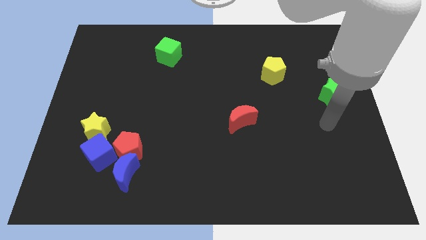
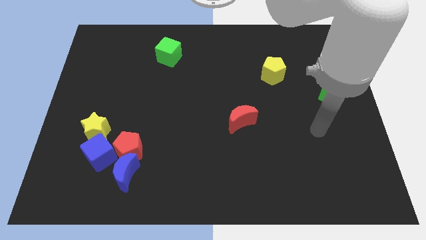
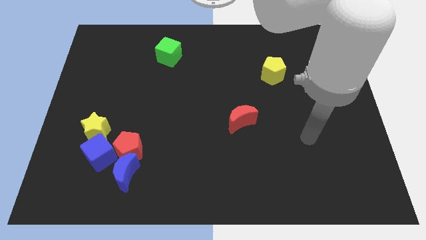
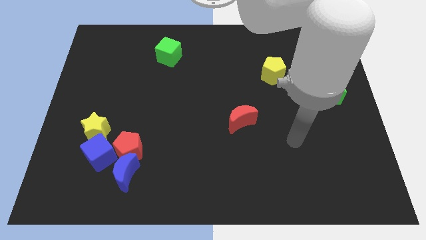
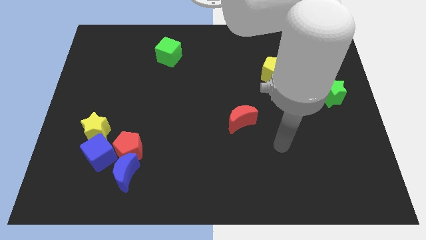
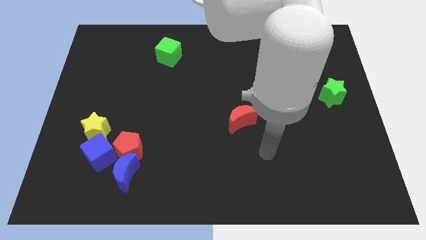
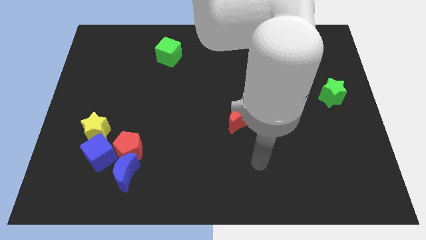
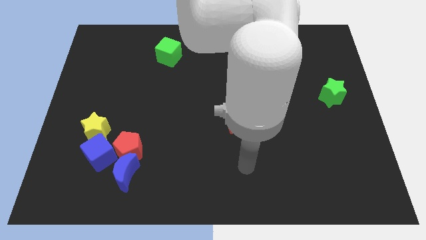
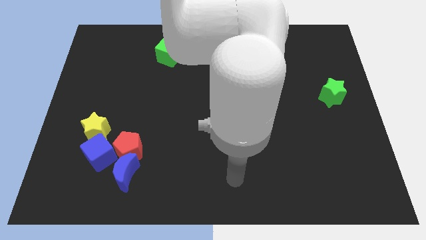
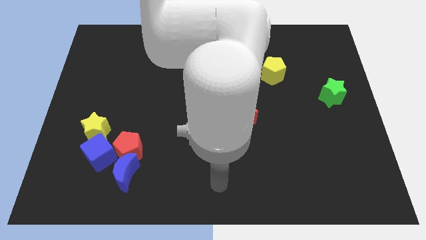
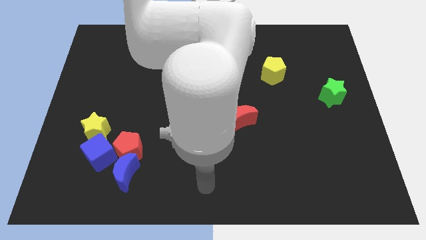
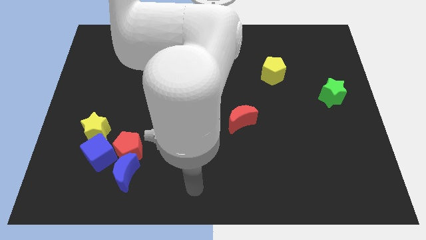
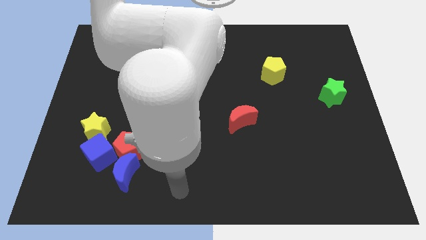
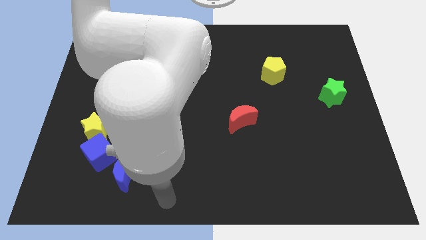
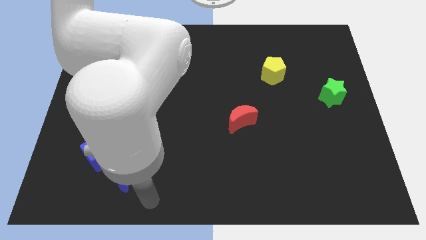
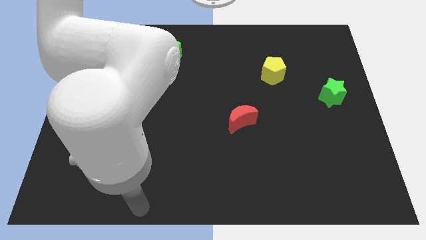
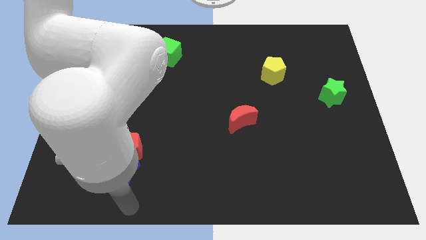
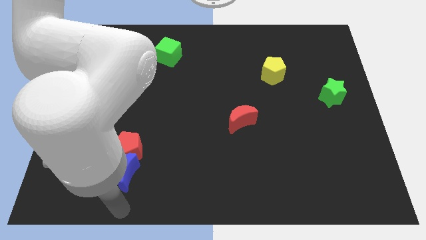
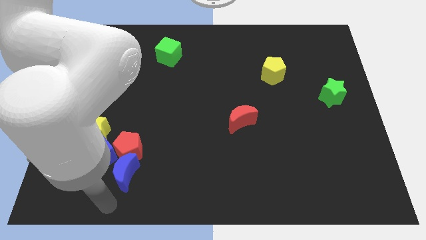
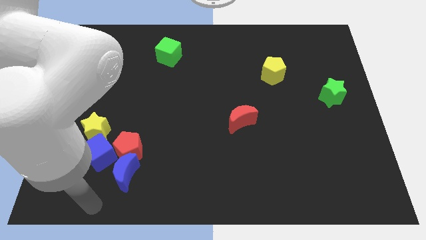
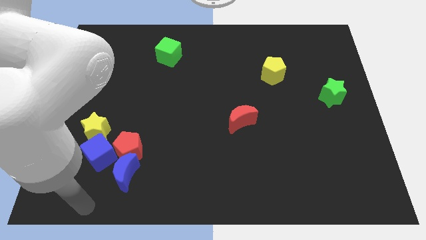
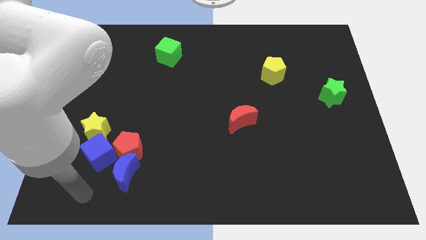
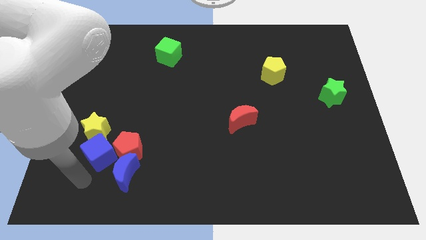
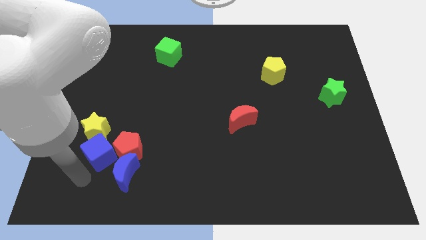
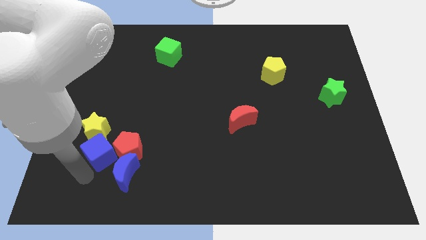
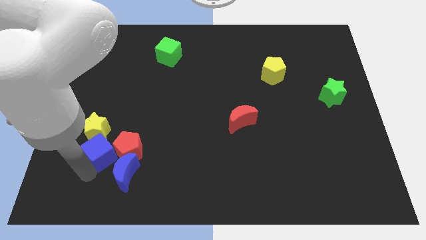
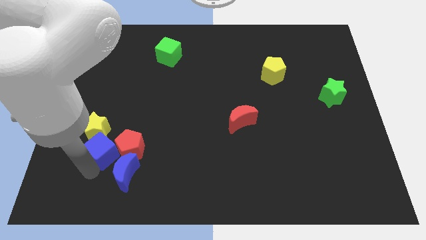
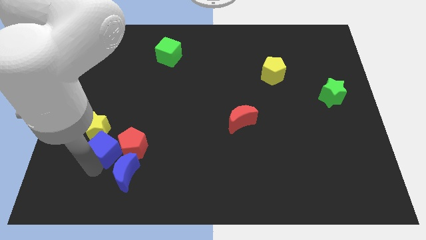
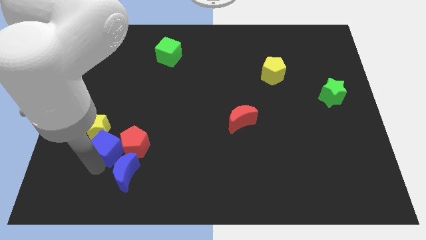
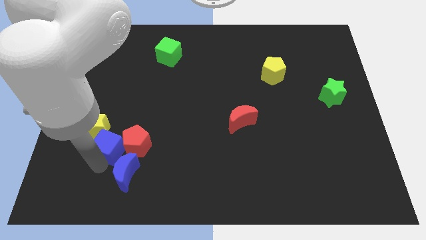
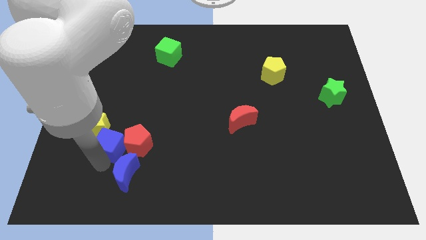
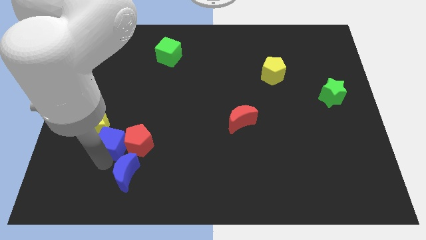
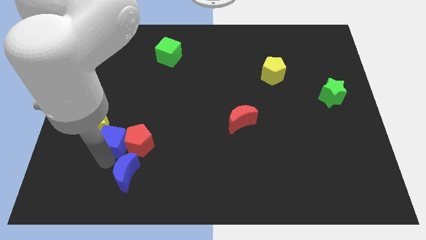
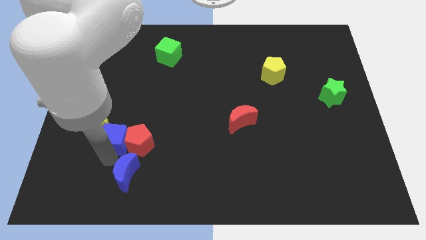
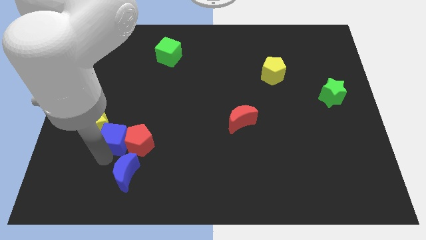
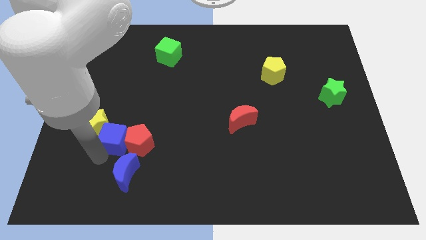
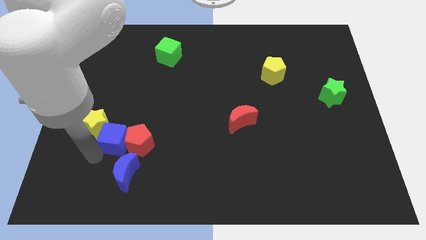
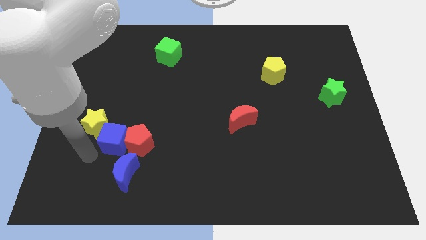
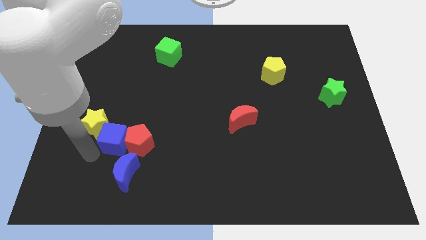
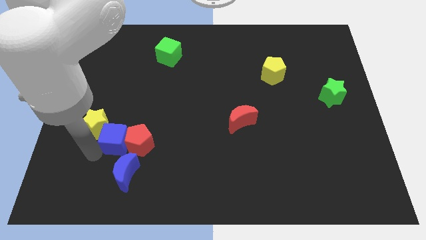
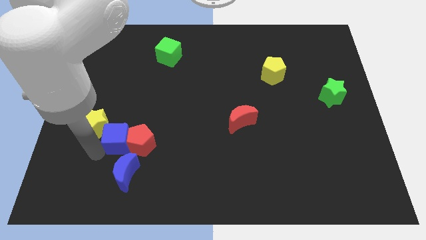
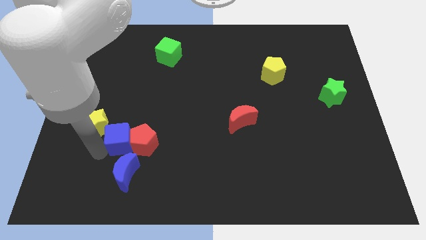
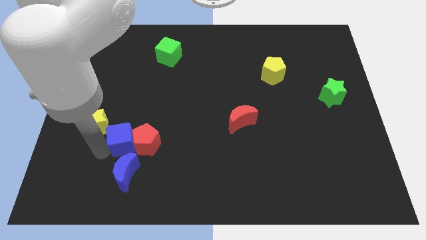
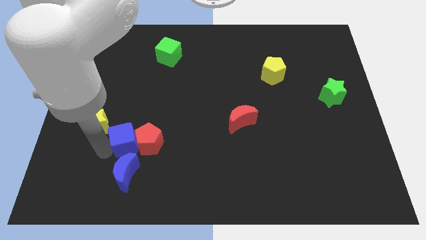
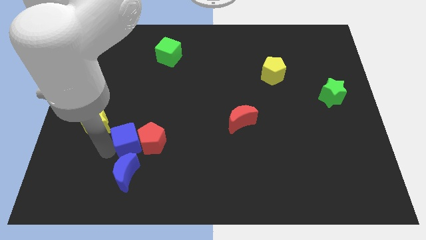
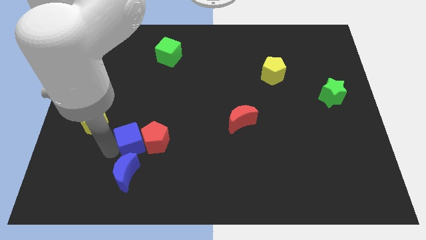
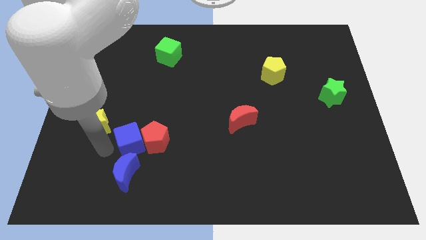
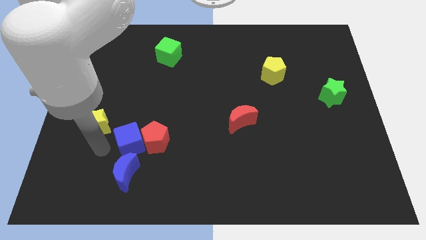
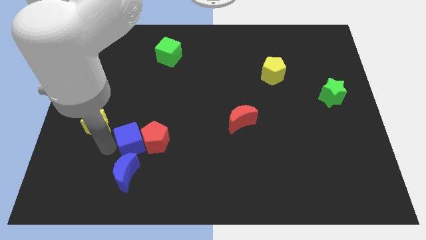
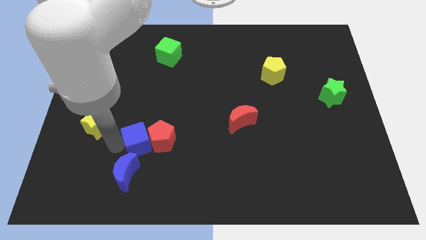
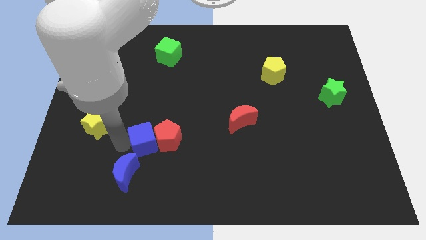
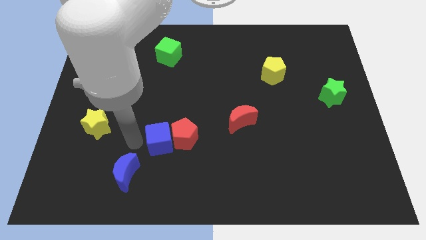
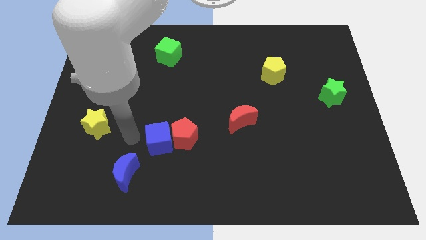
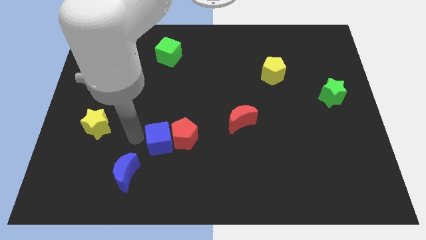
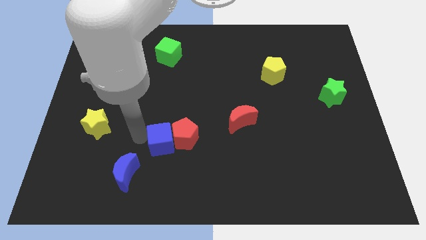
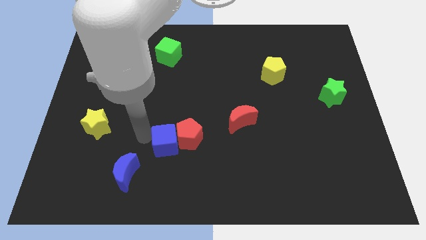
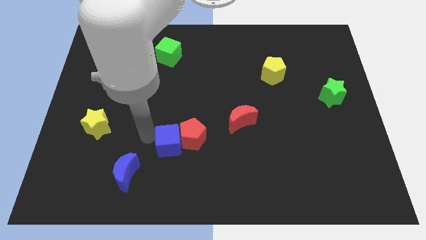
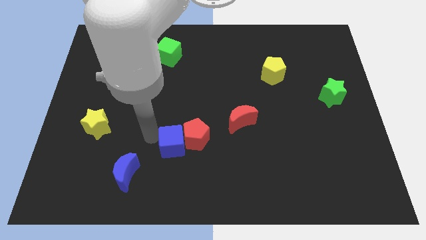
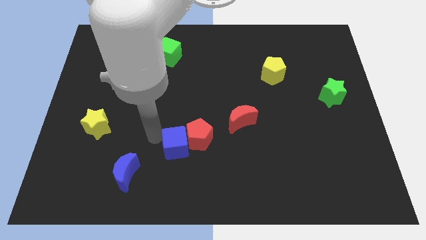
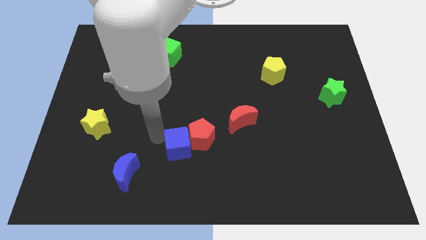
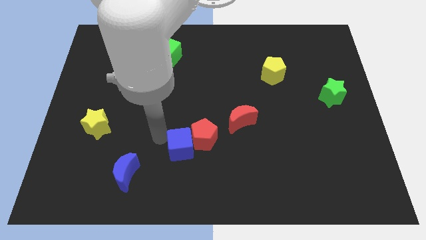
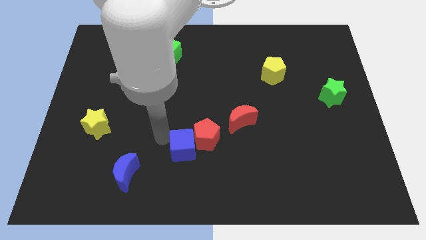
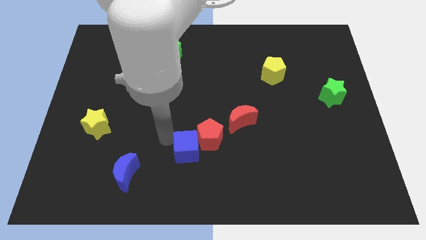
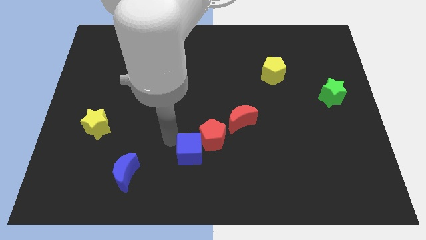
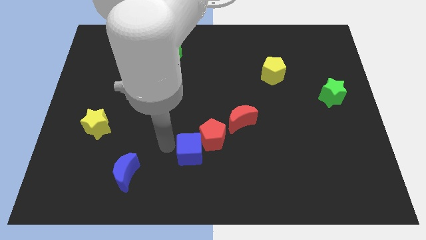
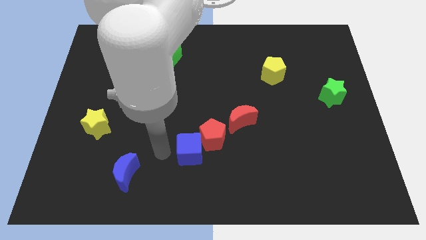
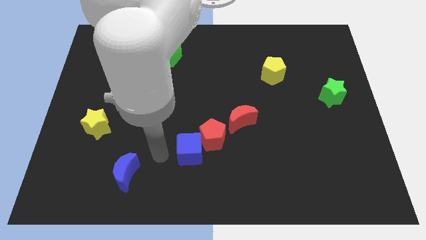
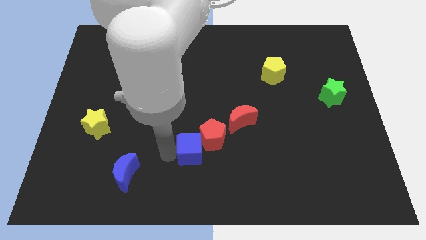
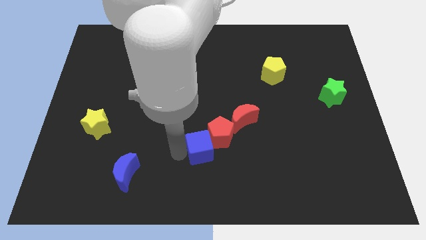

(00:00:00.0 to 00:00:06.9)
slide the blue cube right

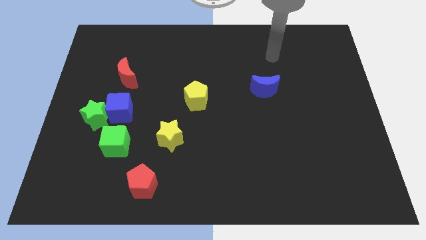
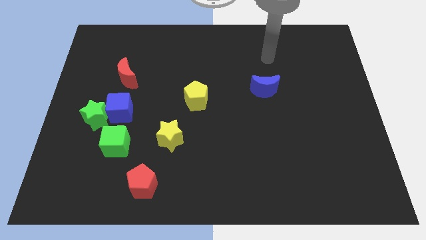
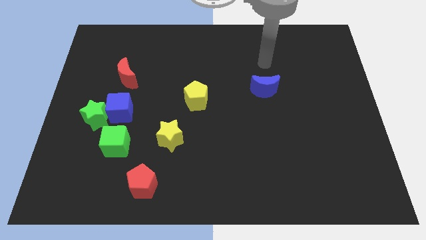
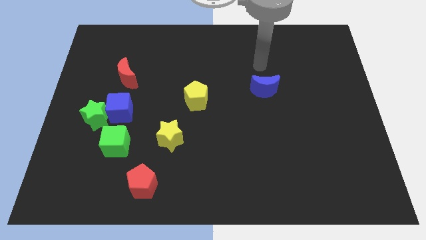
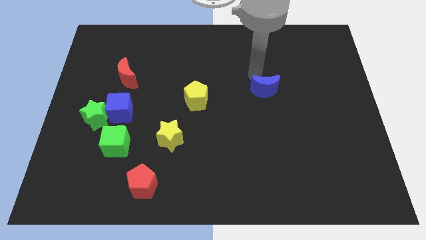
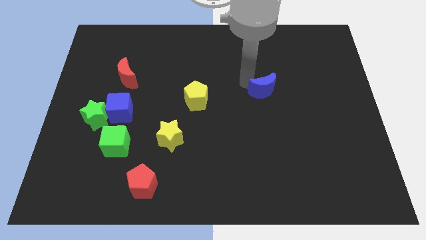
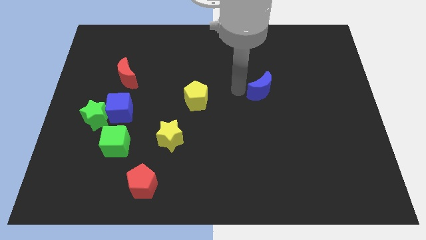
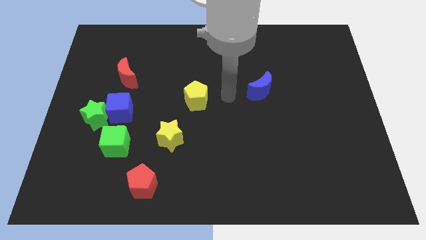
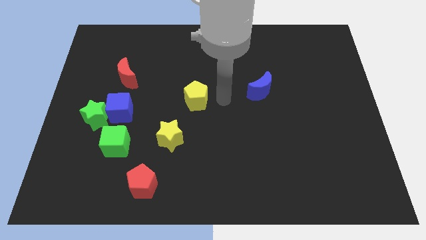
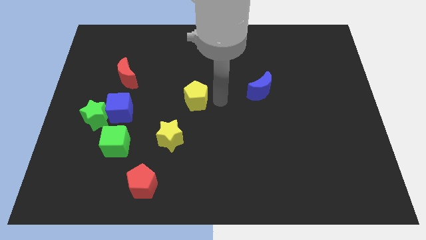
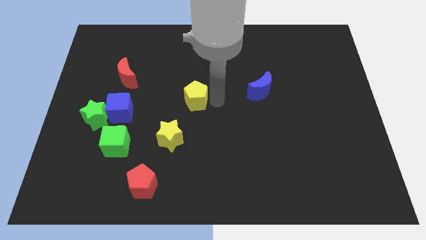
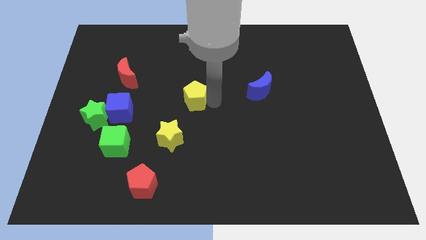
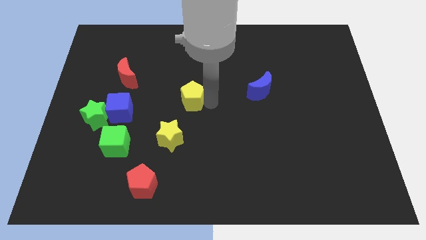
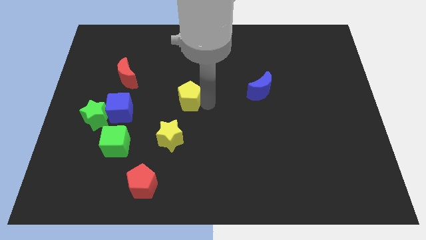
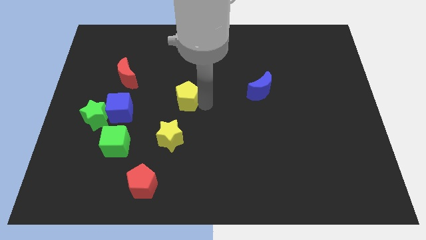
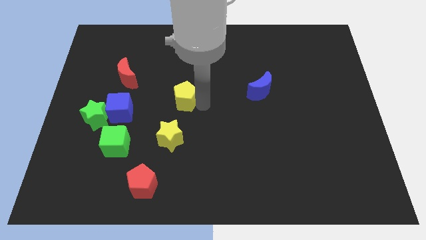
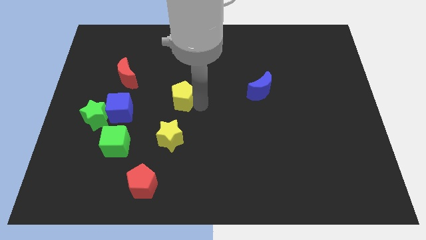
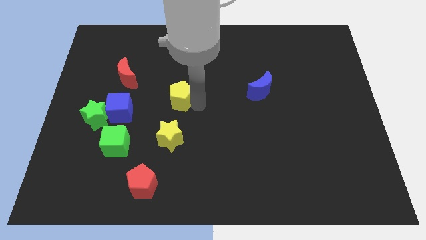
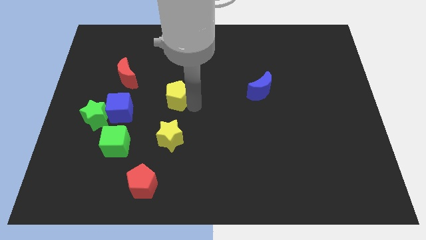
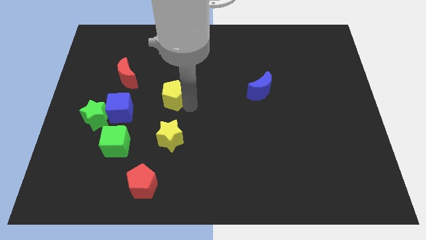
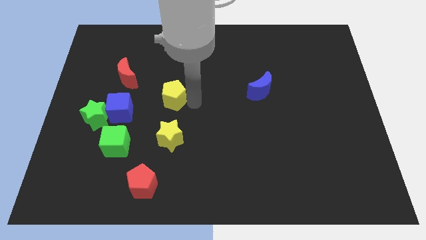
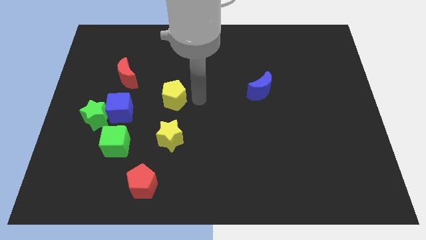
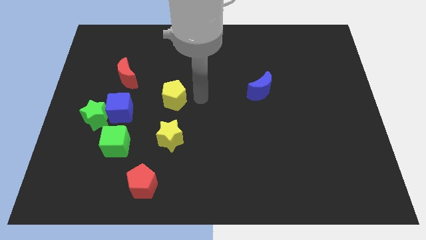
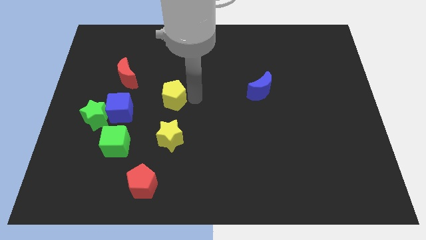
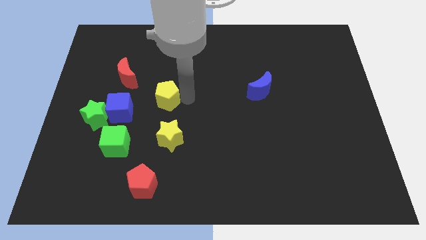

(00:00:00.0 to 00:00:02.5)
move the yellow pentagon somewhat left
